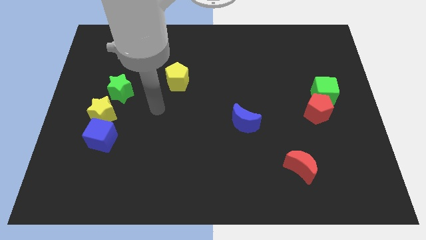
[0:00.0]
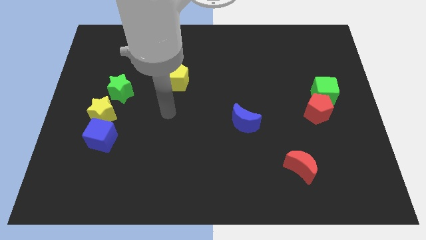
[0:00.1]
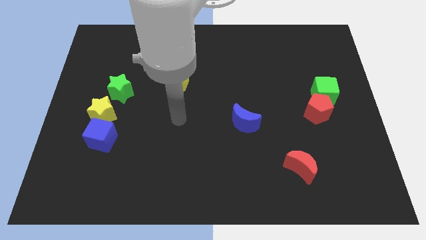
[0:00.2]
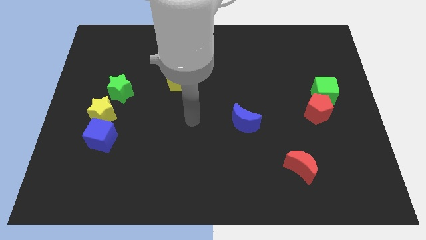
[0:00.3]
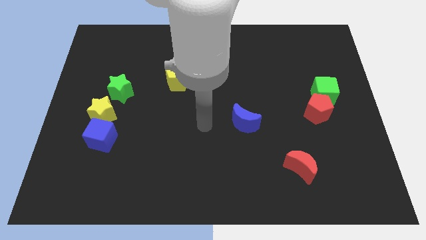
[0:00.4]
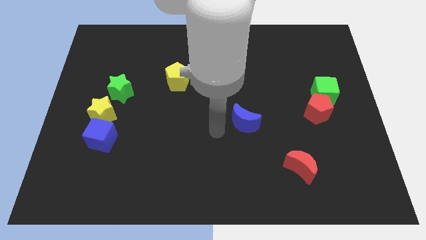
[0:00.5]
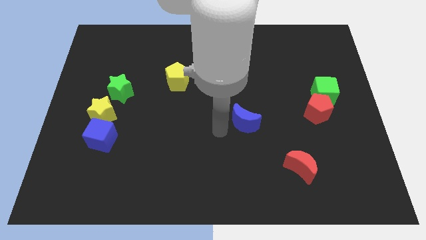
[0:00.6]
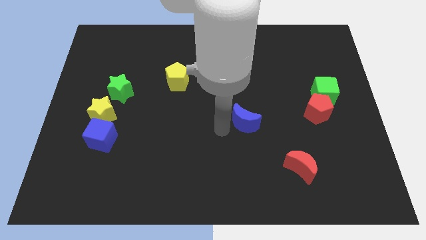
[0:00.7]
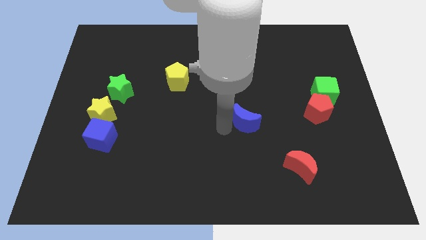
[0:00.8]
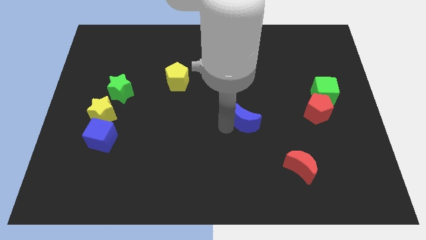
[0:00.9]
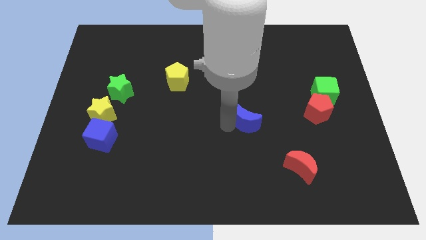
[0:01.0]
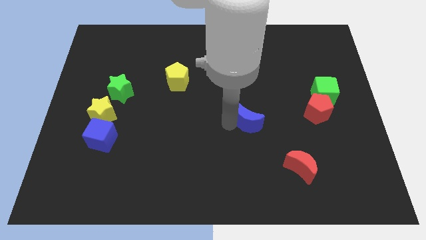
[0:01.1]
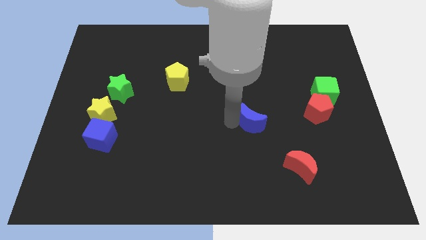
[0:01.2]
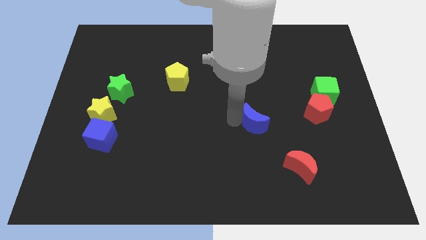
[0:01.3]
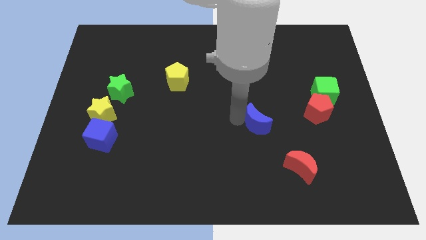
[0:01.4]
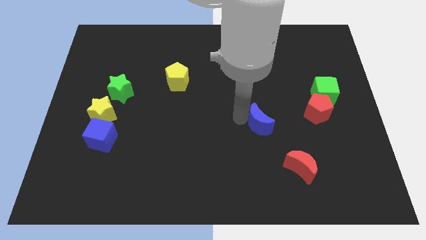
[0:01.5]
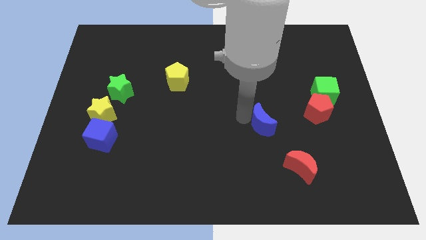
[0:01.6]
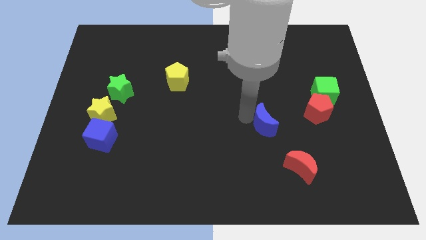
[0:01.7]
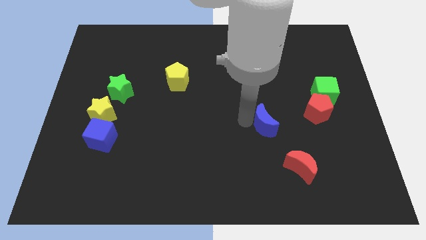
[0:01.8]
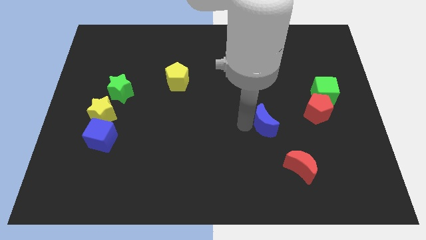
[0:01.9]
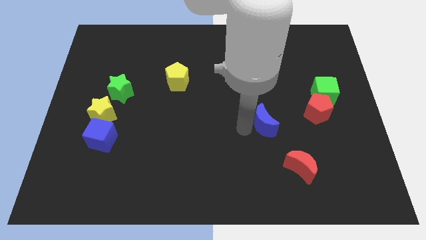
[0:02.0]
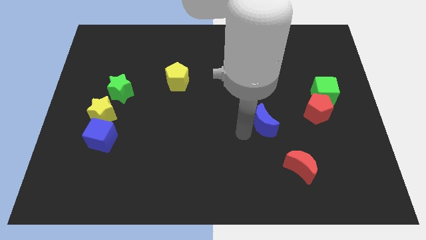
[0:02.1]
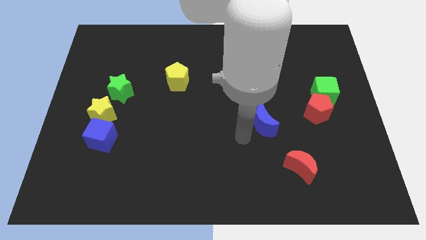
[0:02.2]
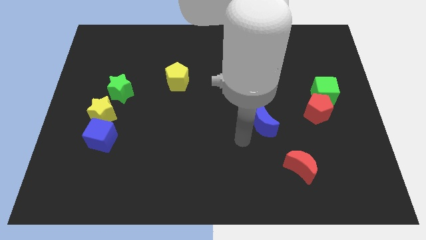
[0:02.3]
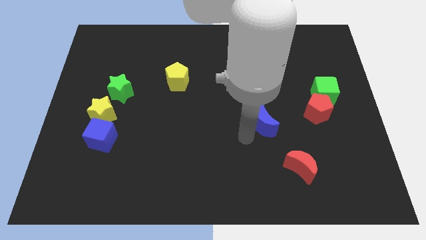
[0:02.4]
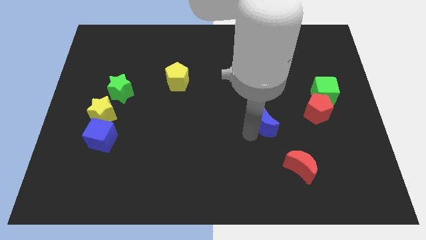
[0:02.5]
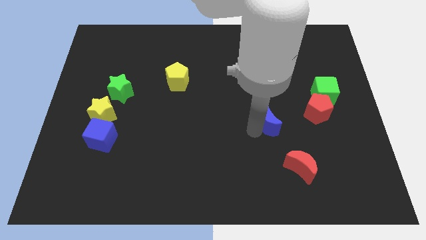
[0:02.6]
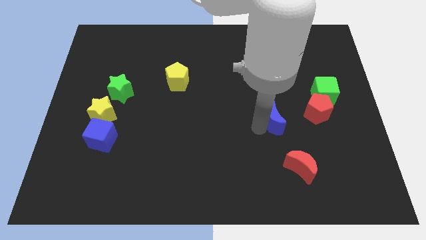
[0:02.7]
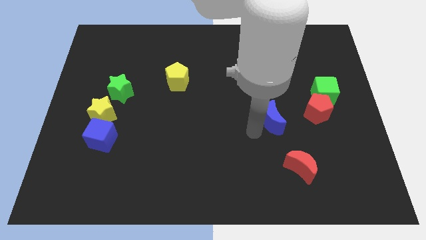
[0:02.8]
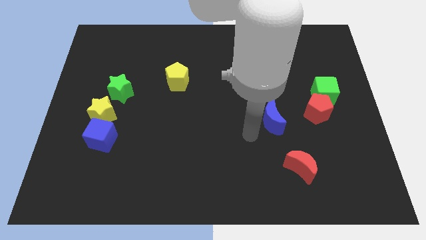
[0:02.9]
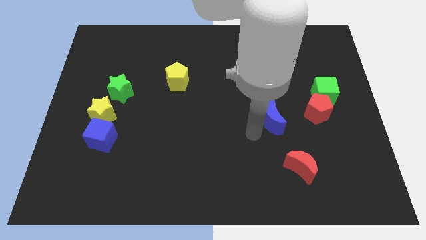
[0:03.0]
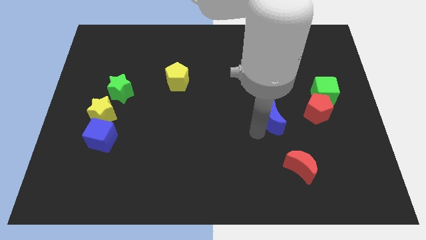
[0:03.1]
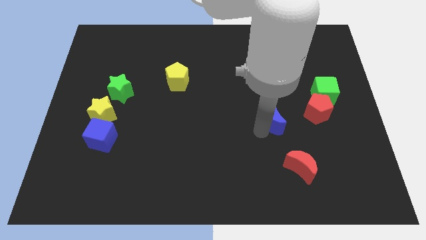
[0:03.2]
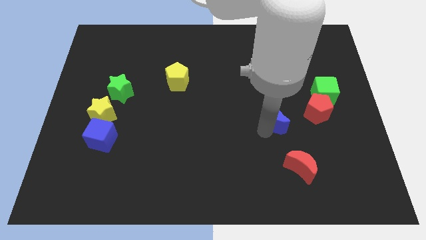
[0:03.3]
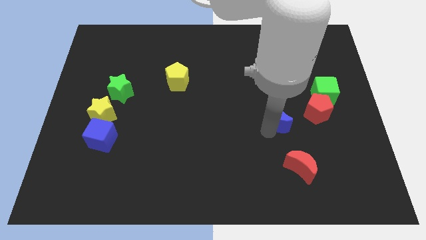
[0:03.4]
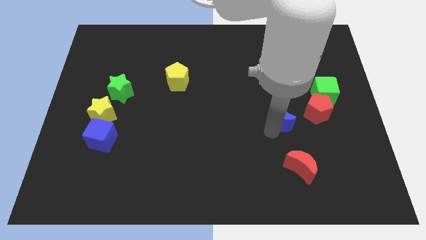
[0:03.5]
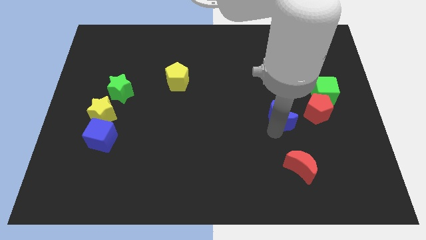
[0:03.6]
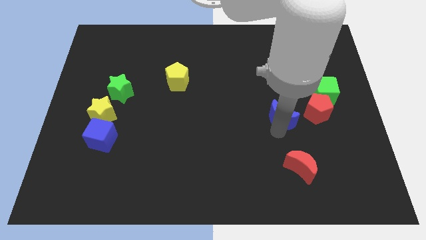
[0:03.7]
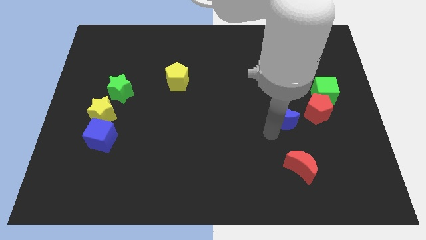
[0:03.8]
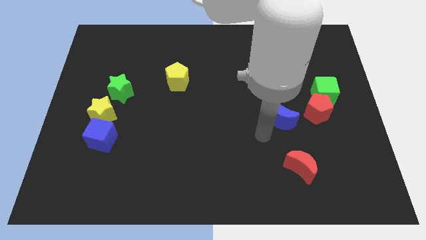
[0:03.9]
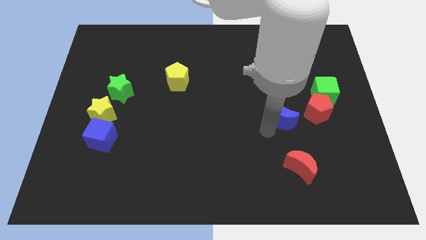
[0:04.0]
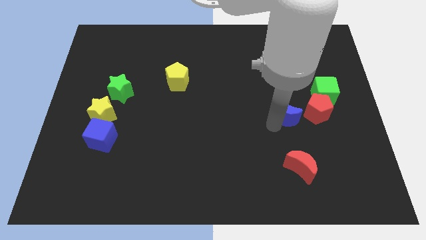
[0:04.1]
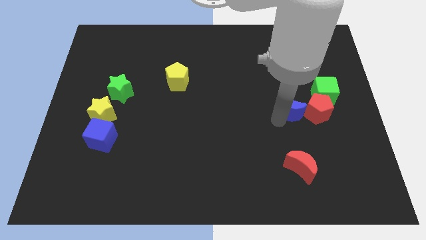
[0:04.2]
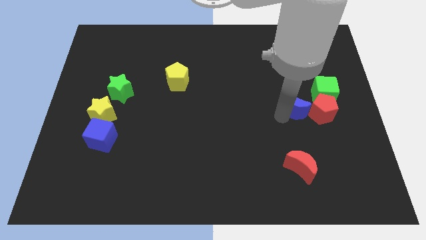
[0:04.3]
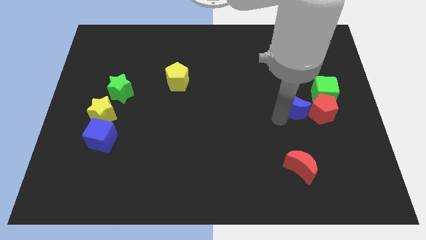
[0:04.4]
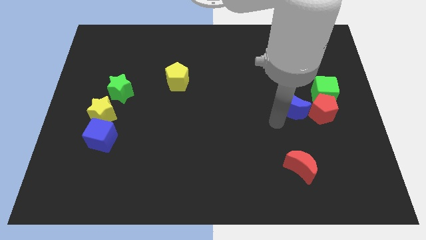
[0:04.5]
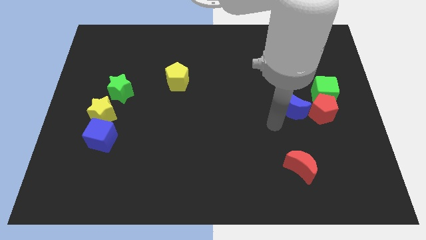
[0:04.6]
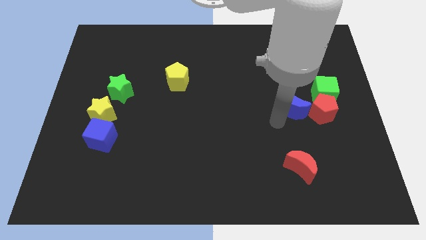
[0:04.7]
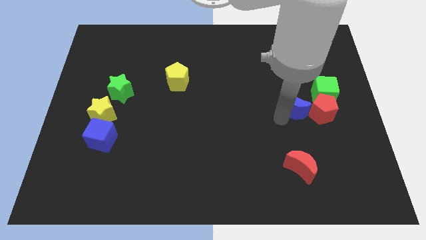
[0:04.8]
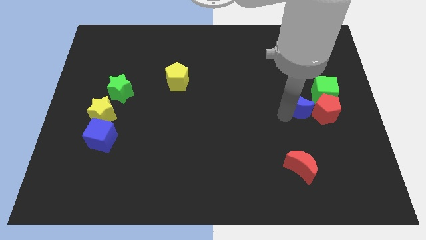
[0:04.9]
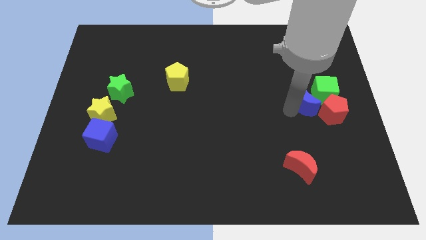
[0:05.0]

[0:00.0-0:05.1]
push the blue moon to the green cube

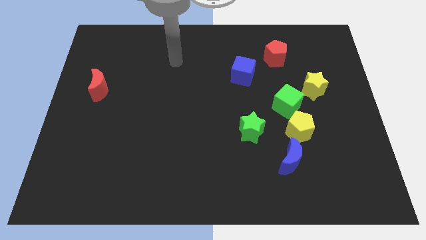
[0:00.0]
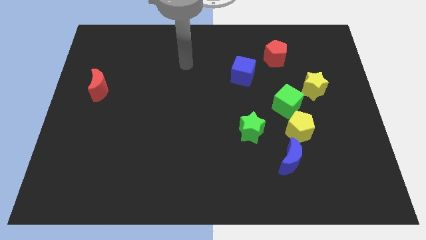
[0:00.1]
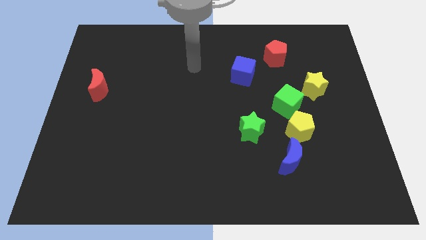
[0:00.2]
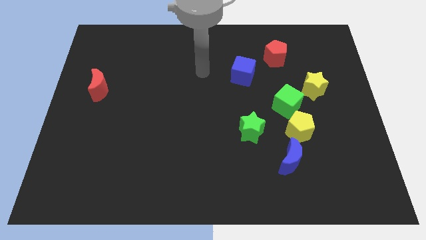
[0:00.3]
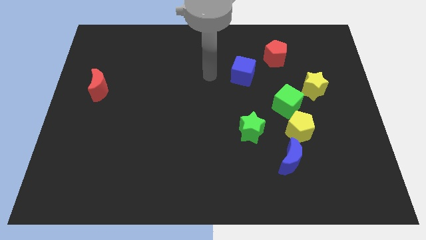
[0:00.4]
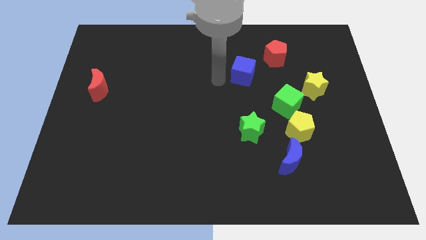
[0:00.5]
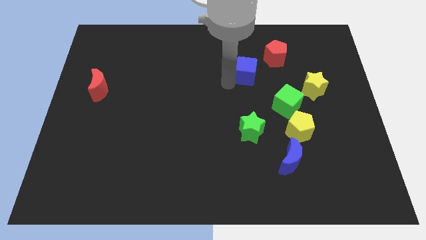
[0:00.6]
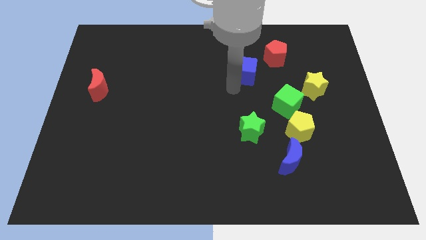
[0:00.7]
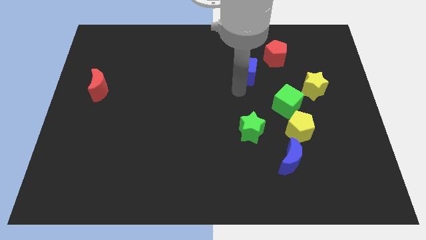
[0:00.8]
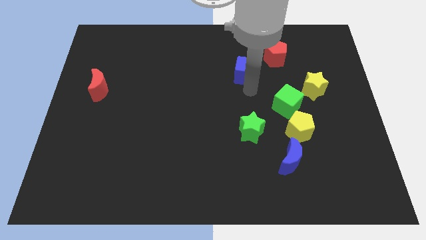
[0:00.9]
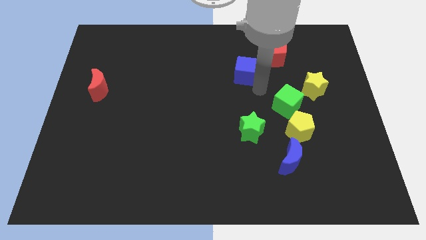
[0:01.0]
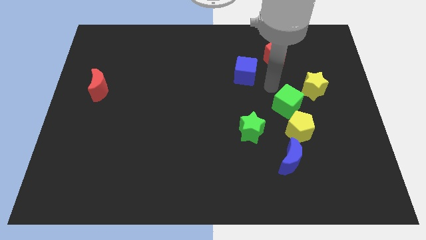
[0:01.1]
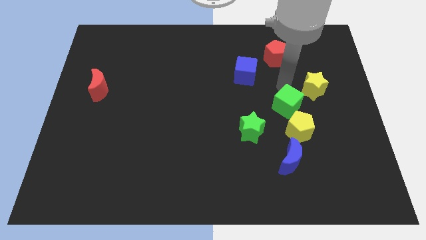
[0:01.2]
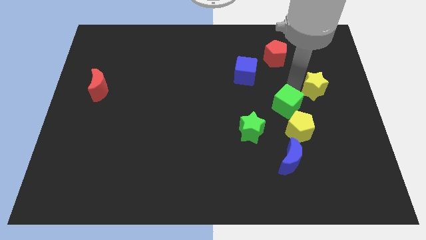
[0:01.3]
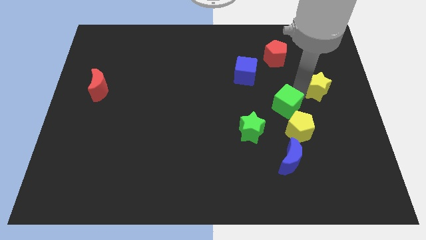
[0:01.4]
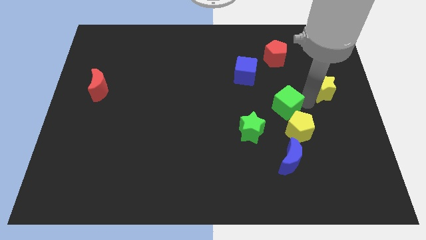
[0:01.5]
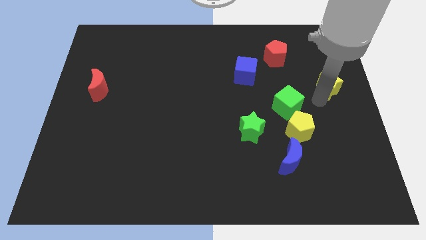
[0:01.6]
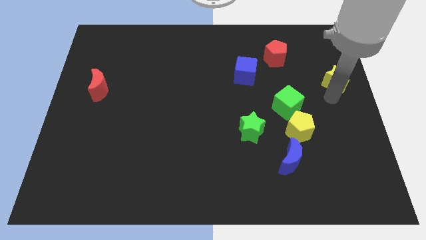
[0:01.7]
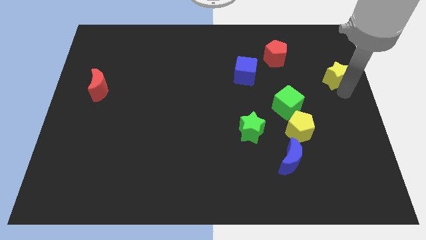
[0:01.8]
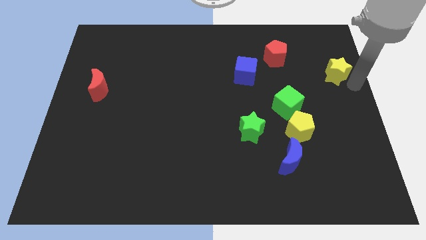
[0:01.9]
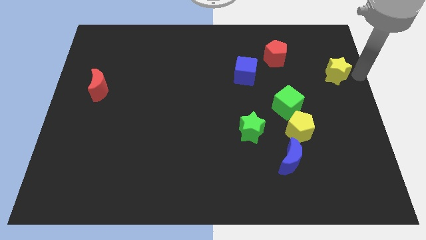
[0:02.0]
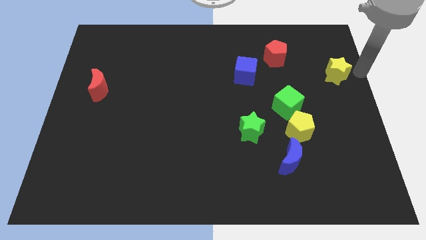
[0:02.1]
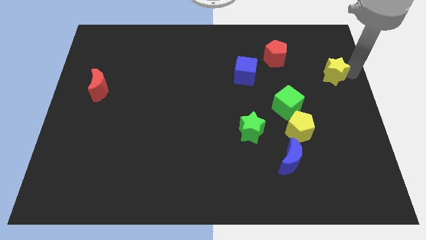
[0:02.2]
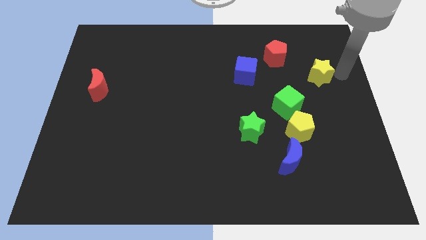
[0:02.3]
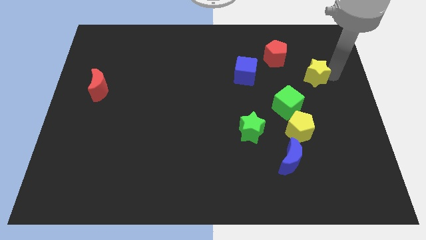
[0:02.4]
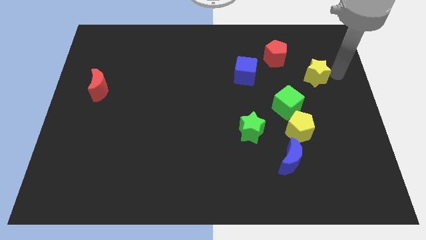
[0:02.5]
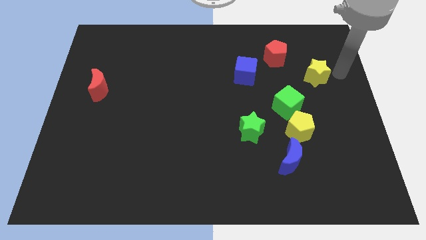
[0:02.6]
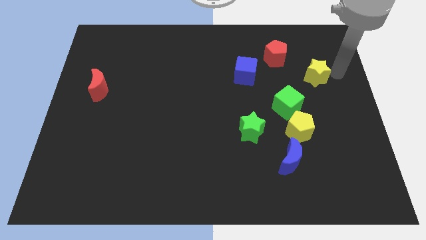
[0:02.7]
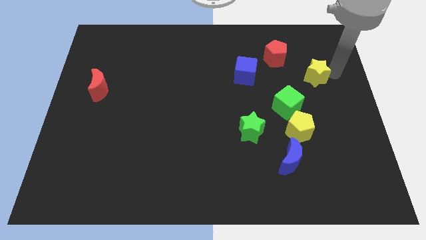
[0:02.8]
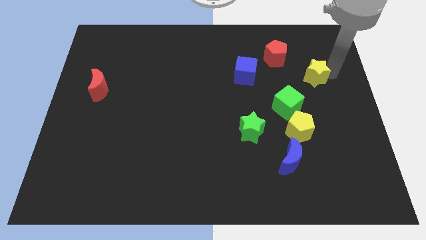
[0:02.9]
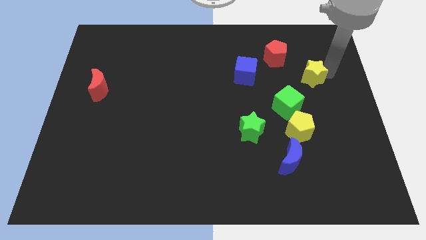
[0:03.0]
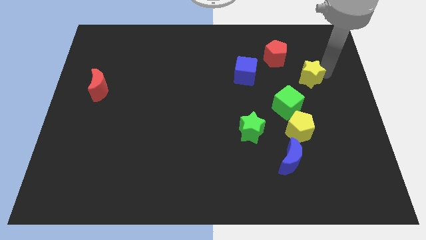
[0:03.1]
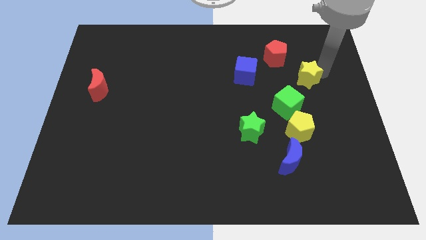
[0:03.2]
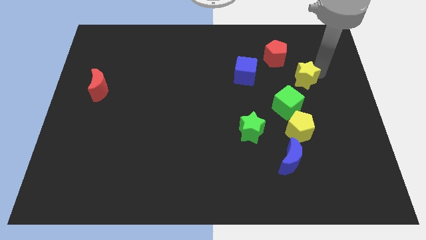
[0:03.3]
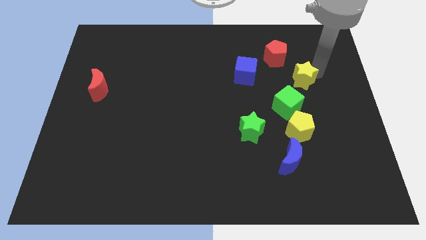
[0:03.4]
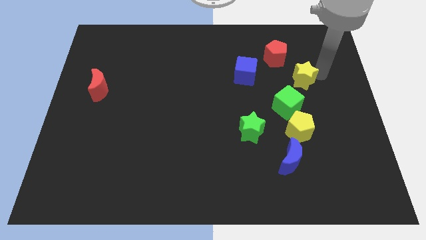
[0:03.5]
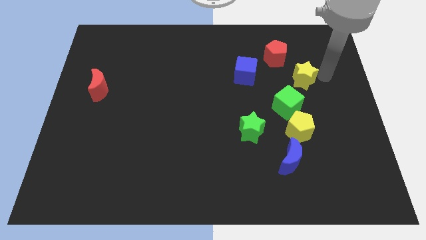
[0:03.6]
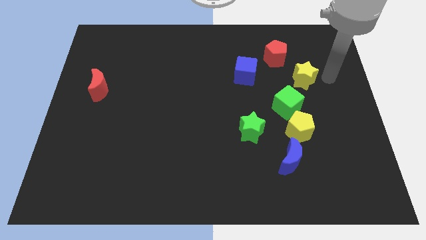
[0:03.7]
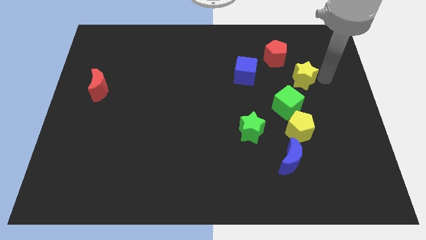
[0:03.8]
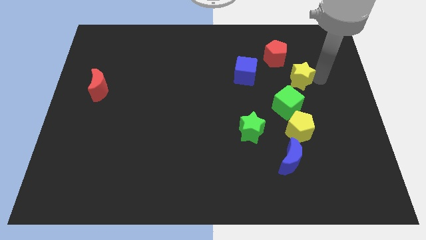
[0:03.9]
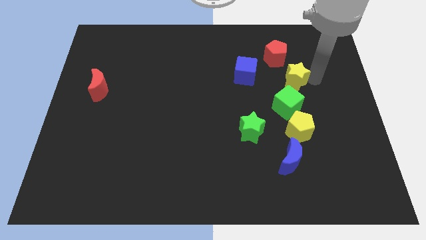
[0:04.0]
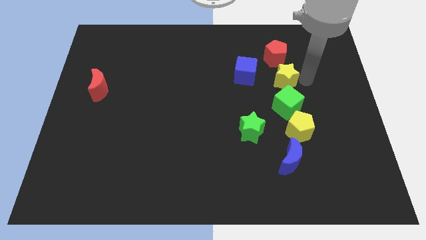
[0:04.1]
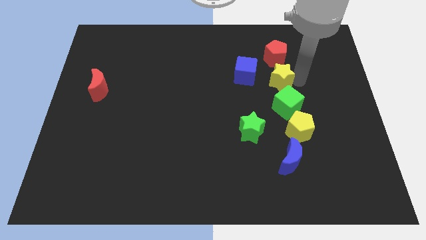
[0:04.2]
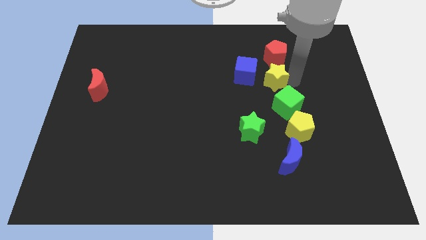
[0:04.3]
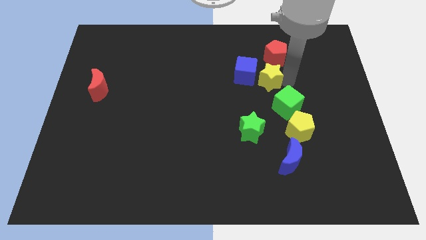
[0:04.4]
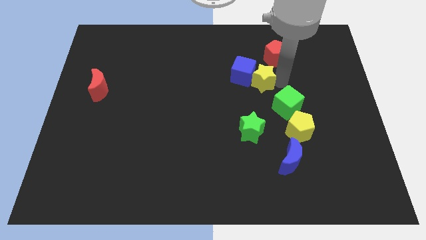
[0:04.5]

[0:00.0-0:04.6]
slide the yellow star next to the blue cube
